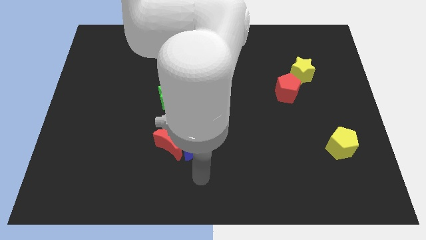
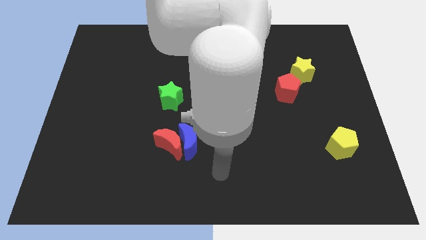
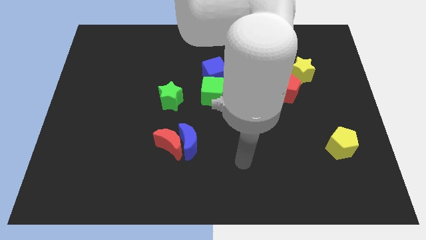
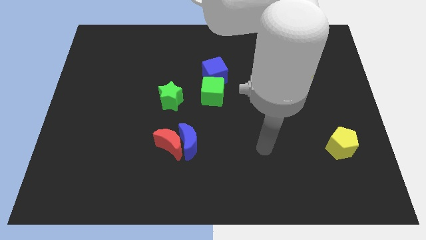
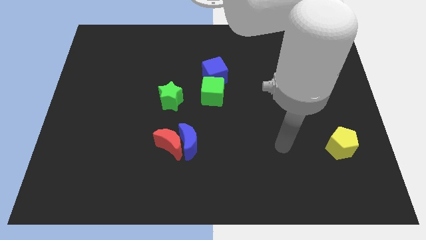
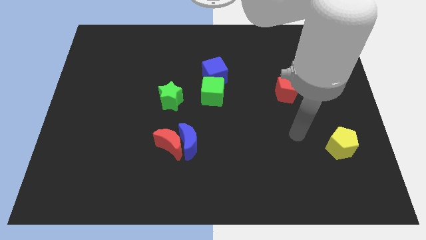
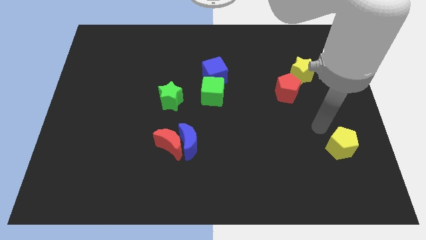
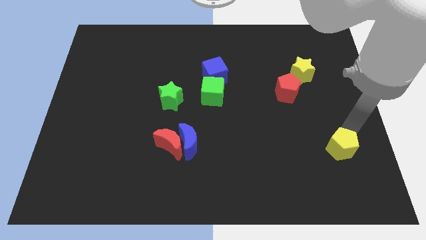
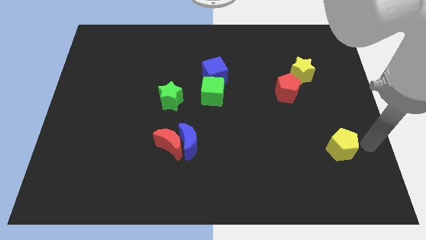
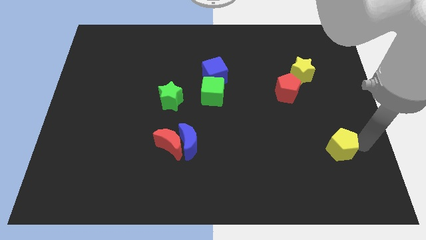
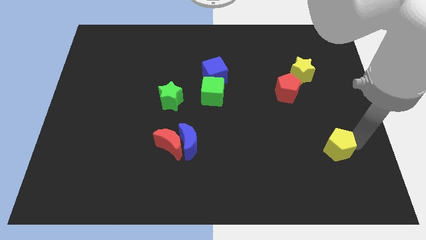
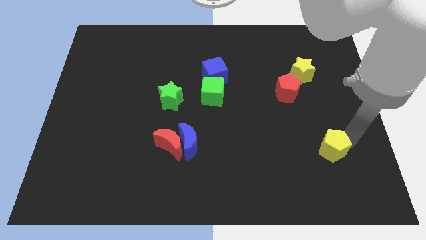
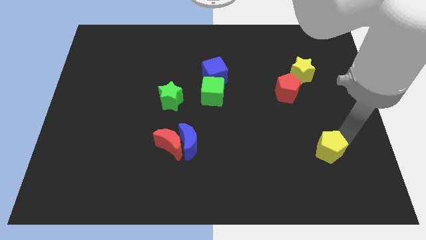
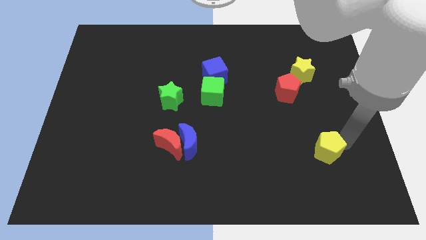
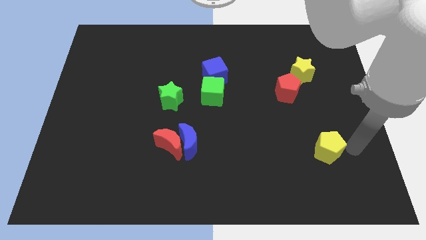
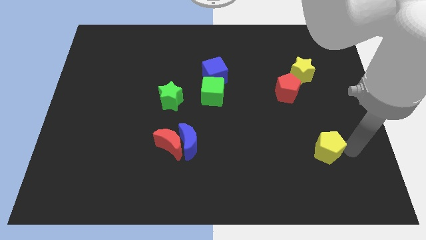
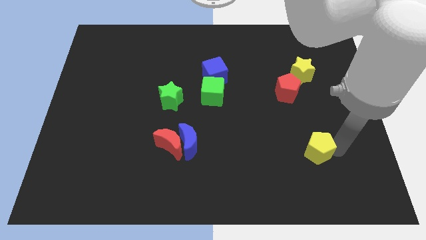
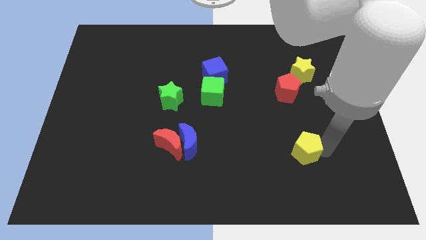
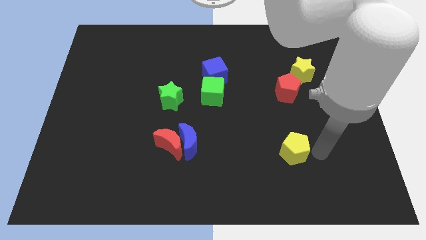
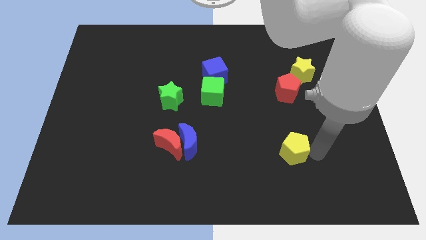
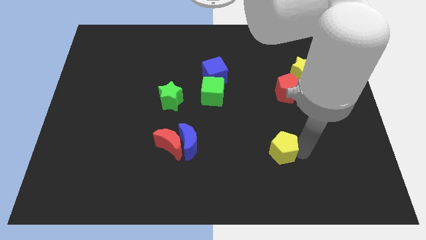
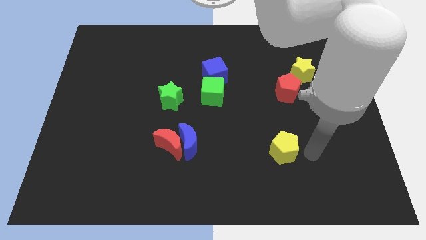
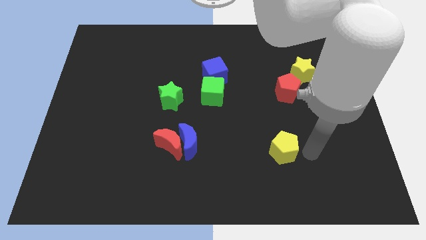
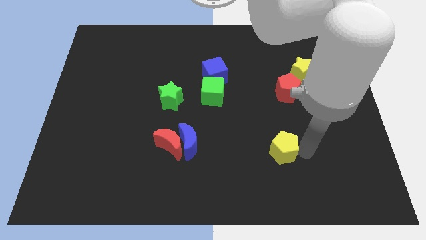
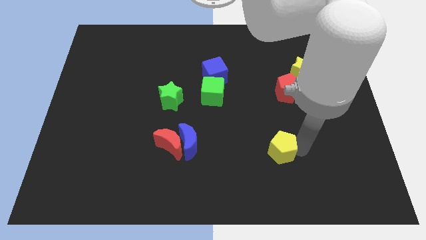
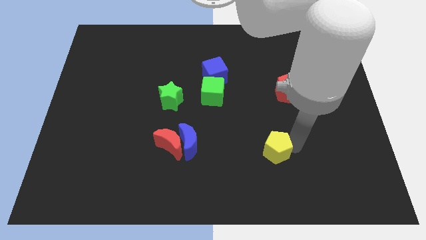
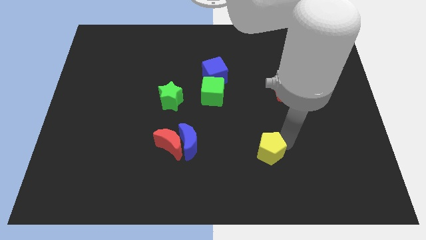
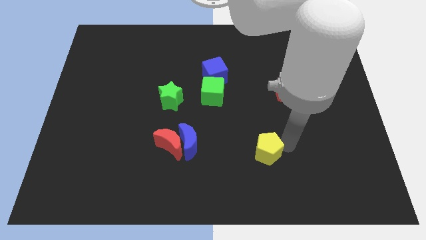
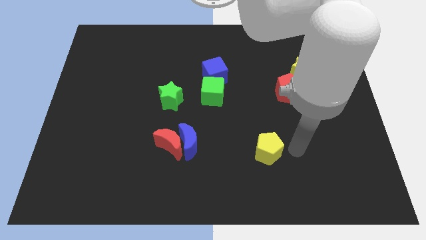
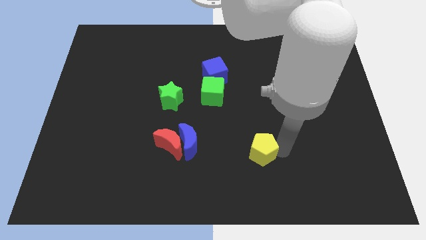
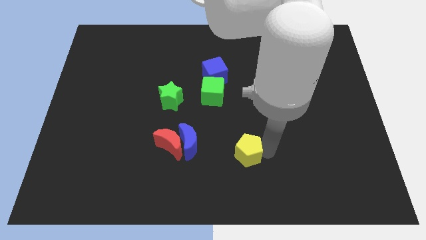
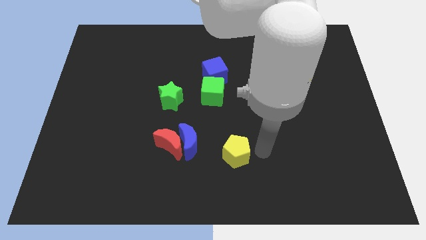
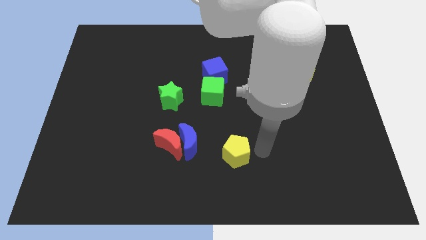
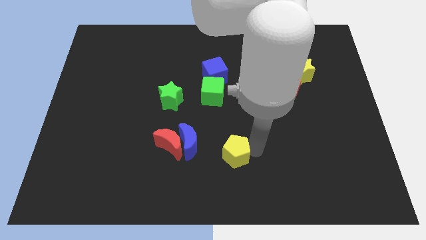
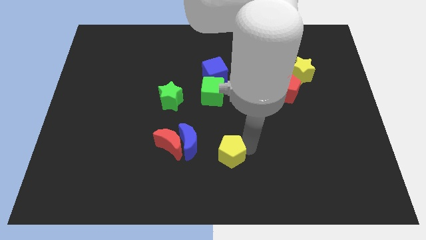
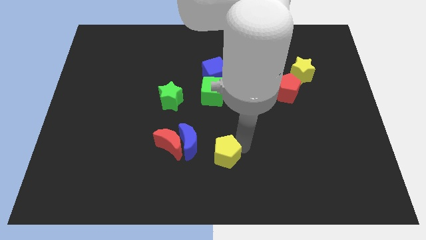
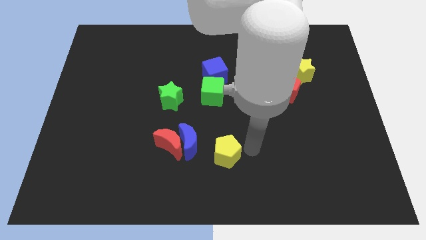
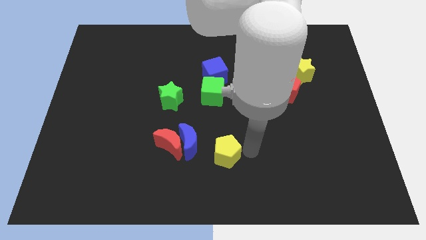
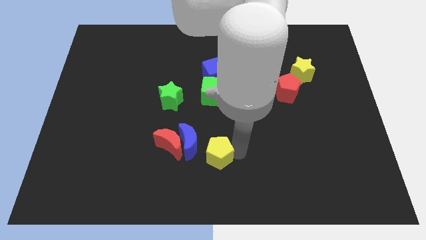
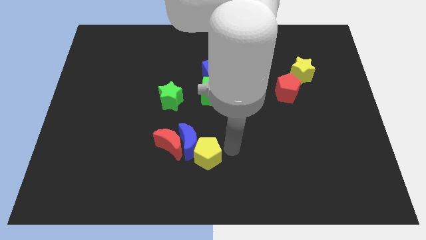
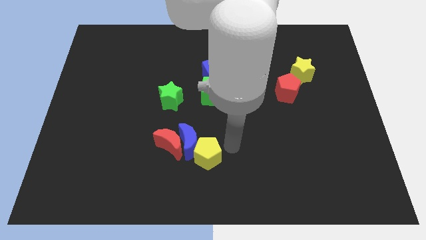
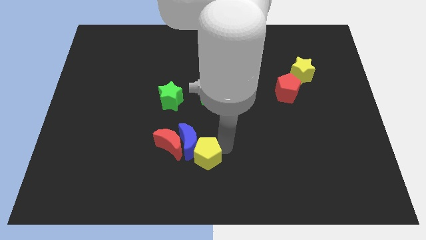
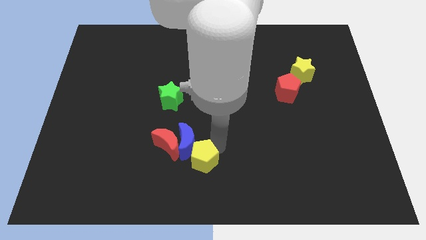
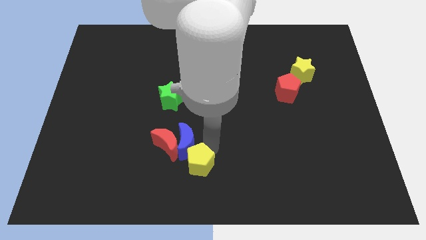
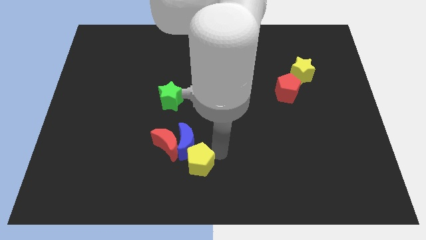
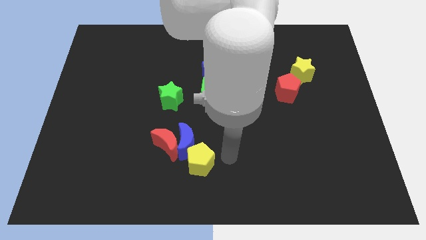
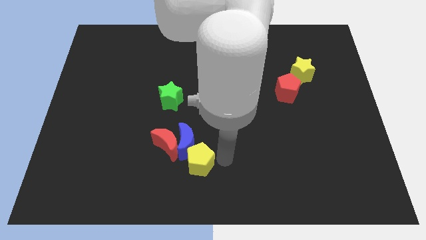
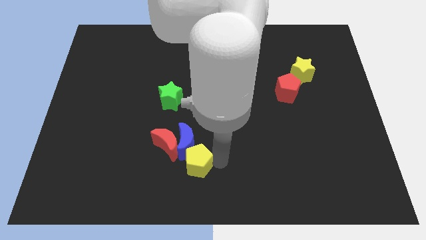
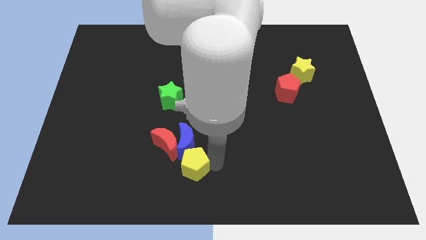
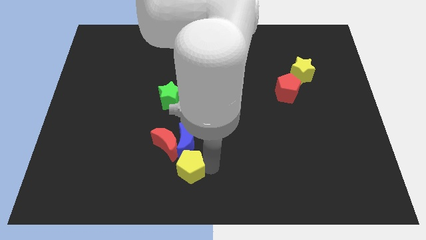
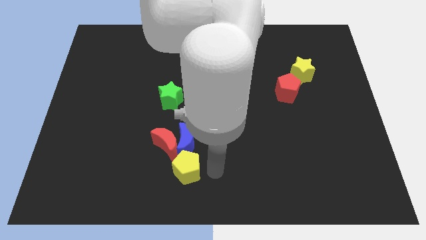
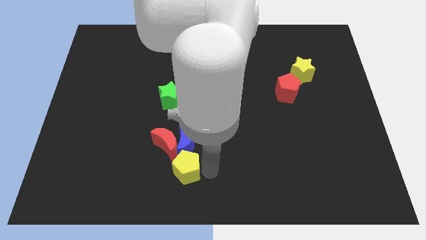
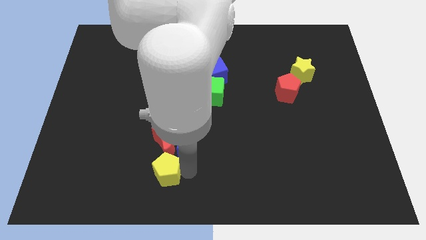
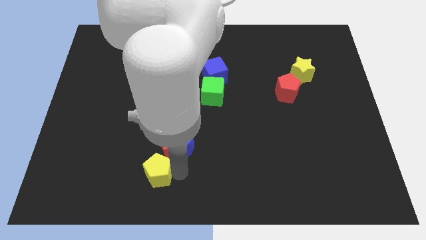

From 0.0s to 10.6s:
move the yellow pentagon to the bottom left of the red moon

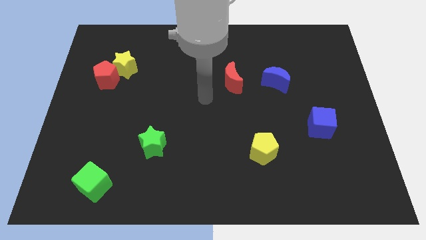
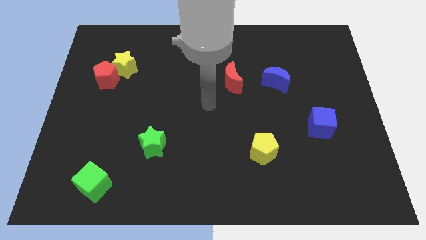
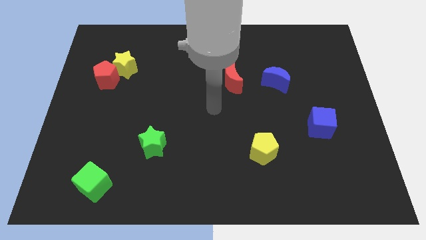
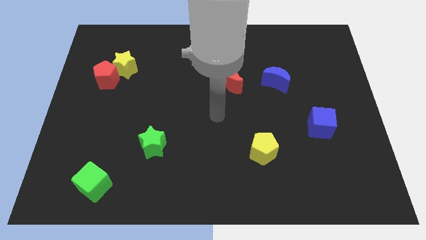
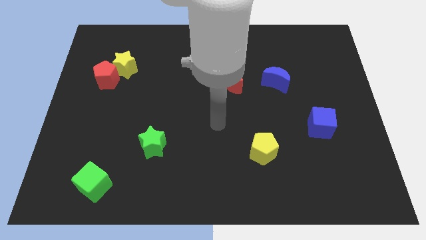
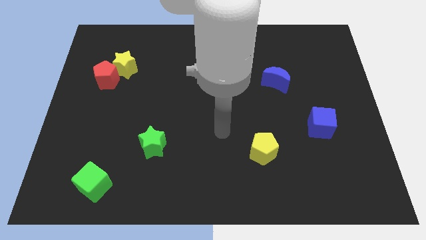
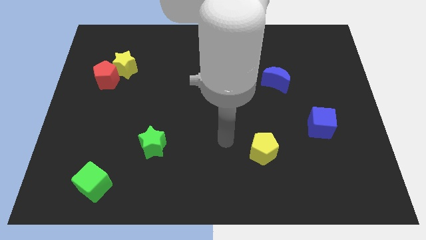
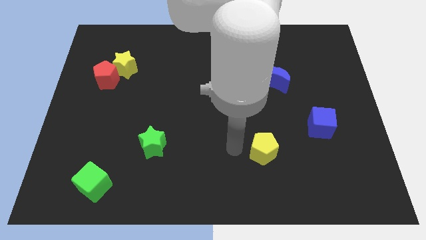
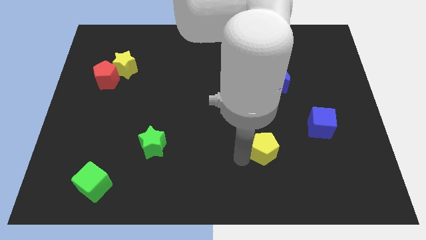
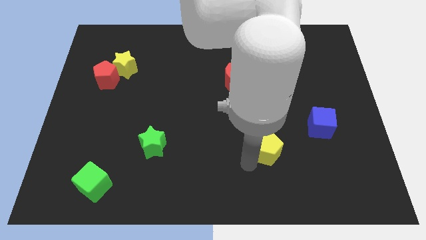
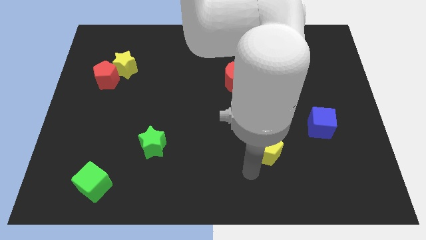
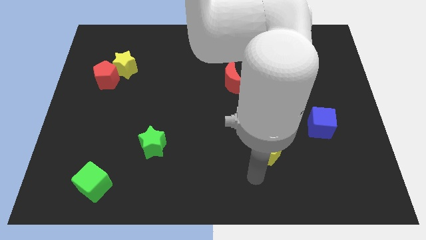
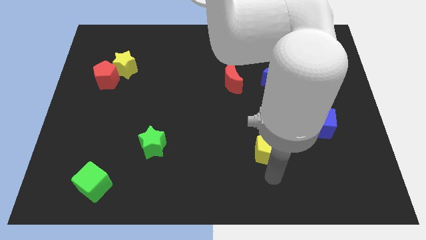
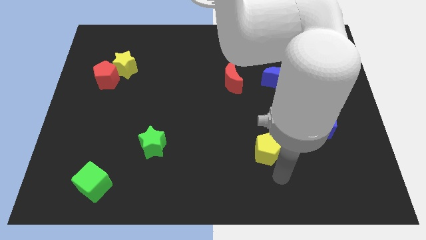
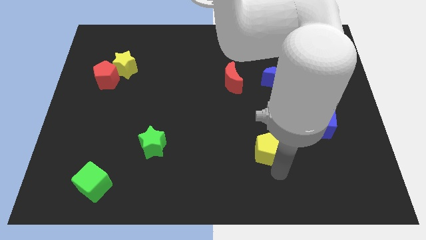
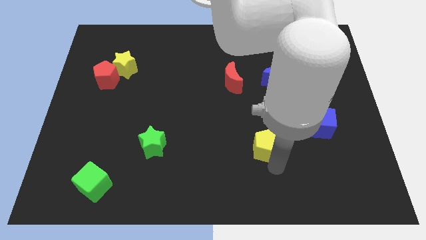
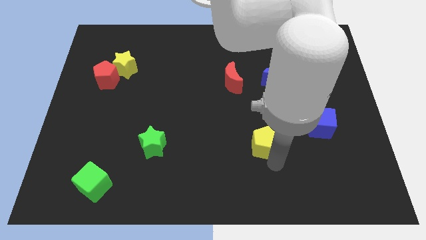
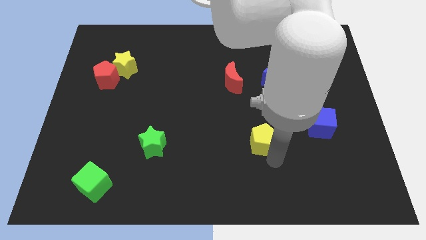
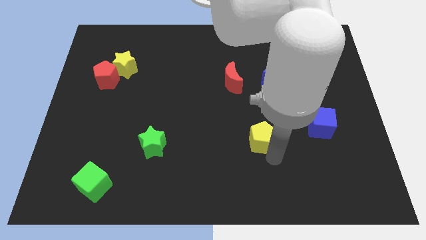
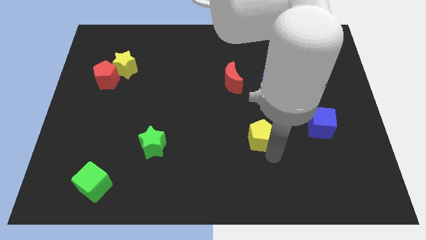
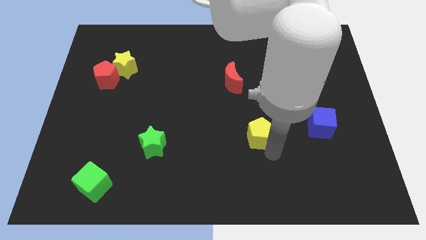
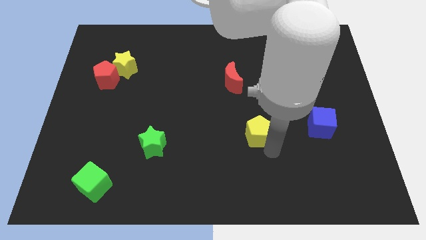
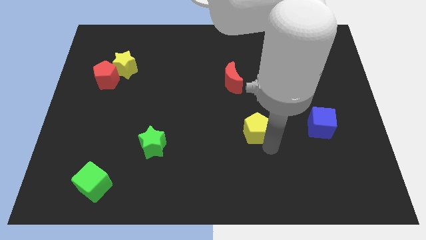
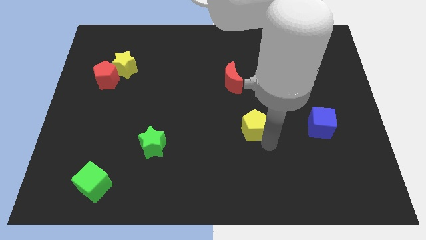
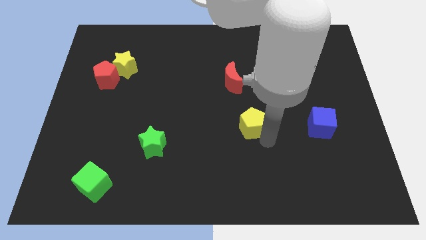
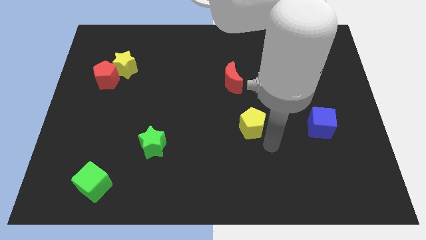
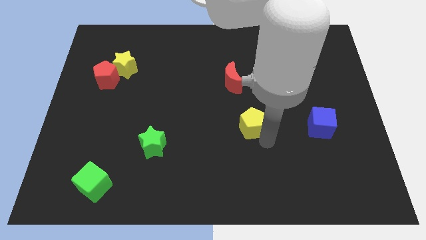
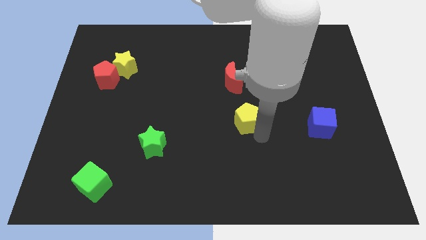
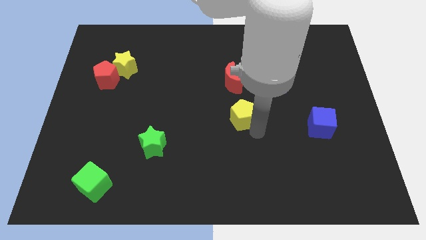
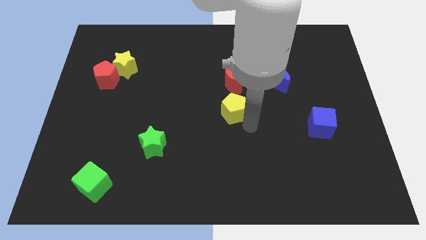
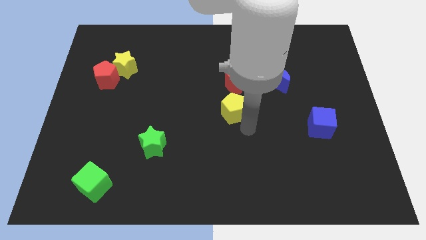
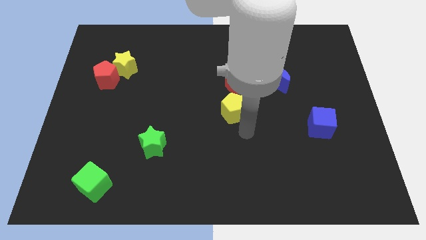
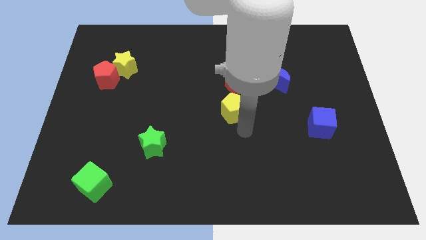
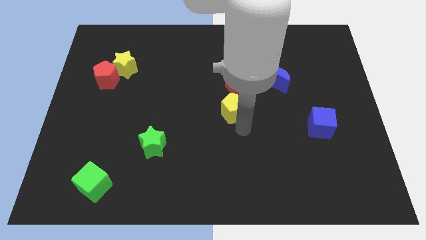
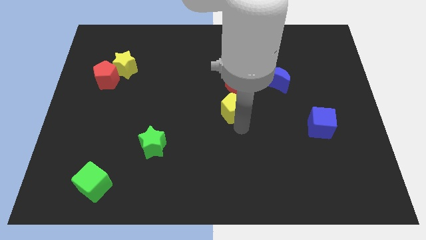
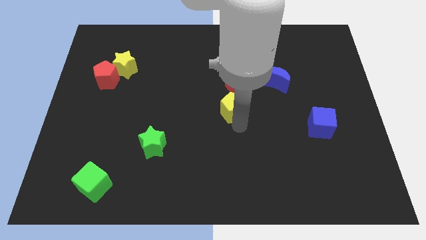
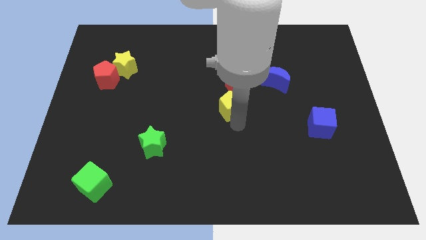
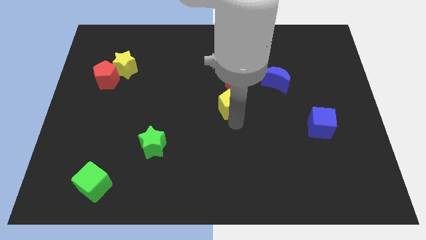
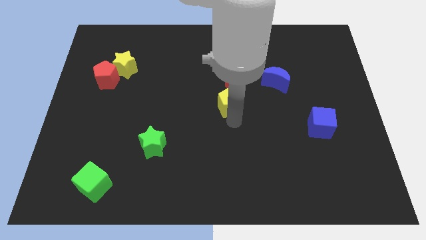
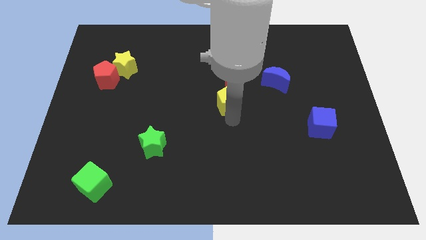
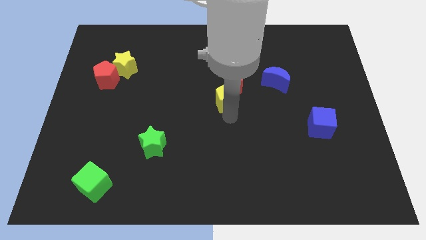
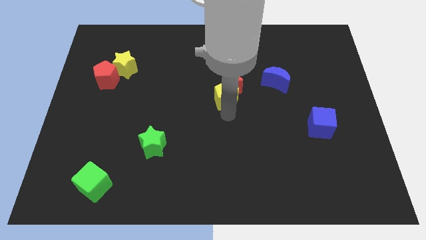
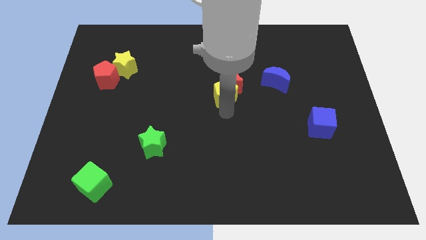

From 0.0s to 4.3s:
put the yellow pentagon to the left side of the blue moon
